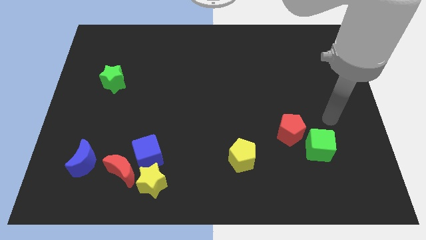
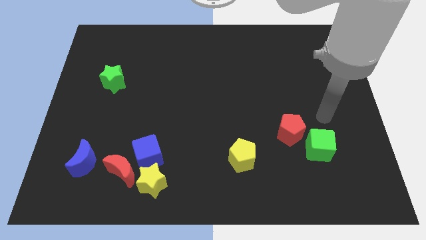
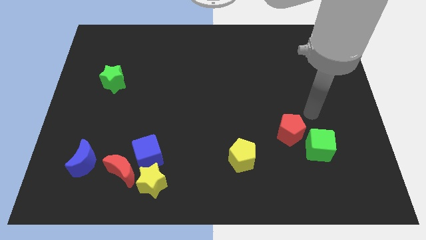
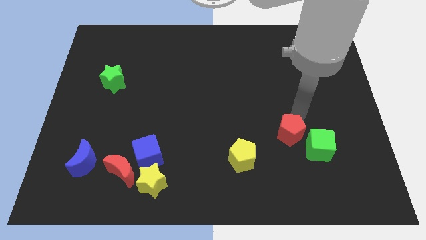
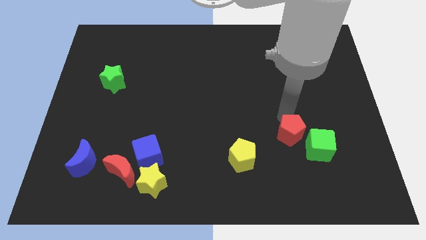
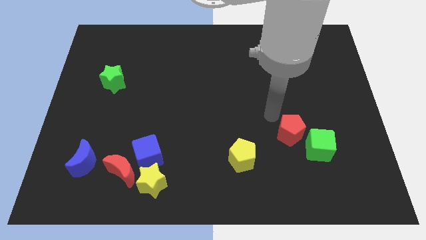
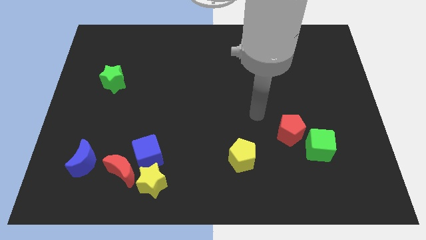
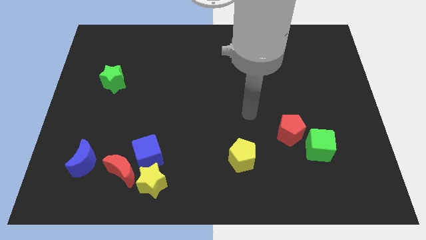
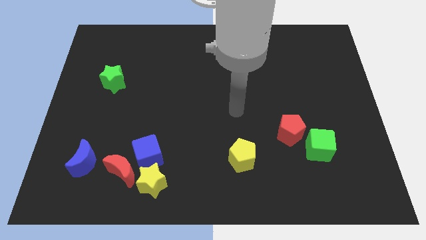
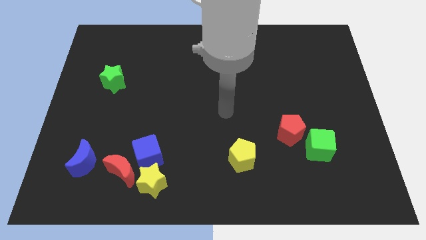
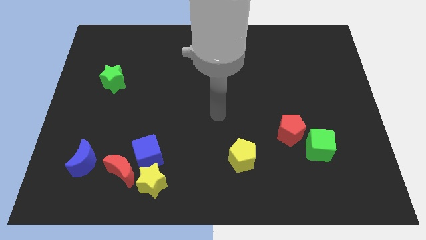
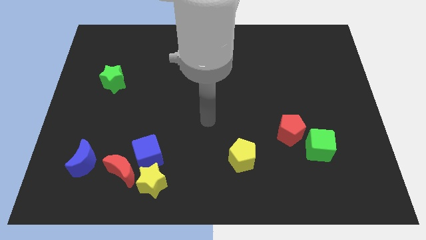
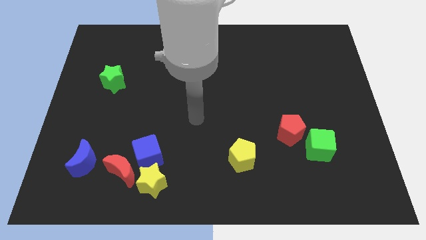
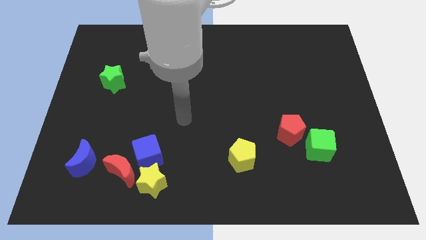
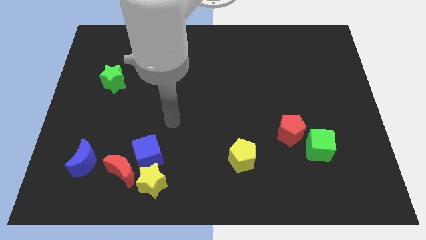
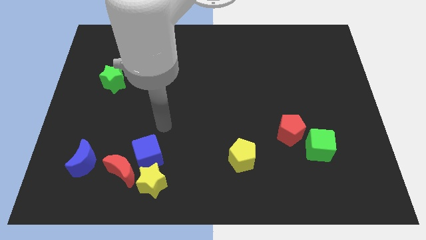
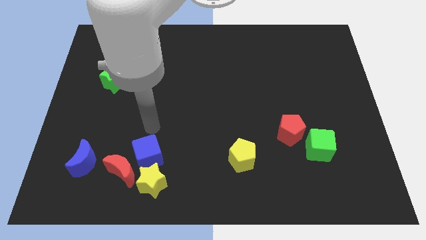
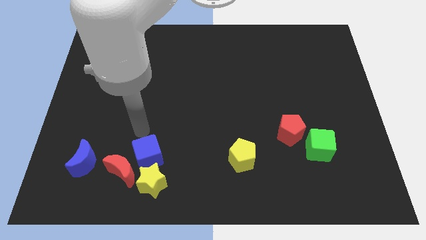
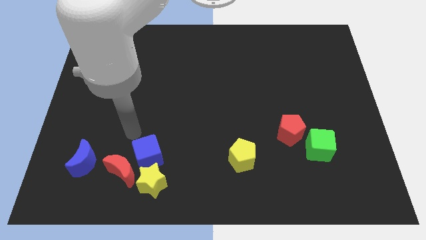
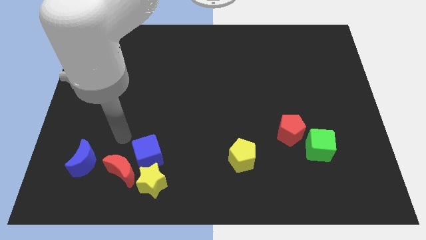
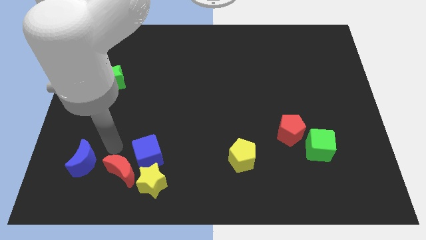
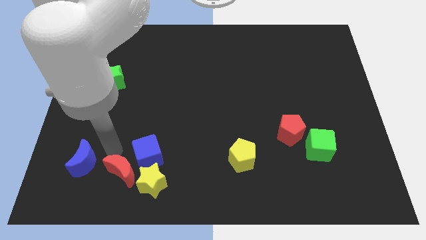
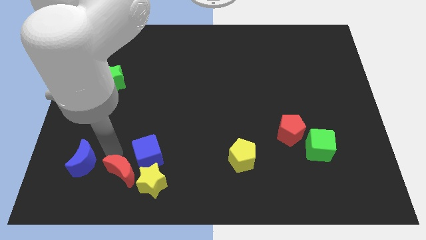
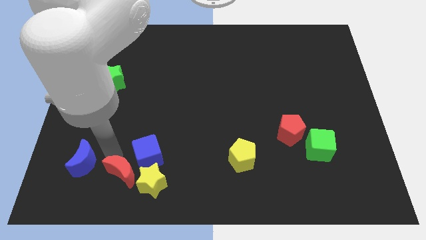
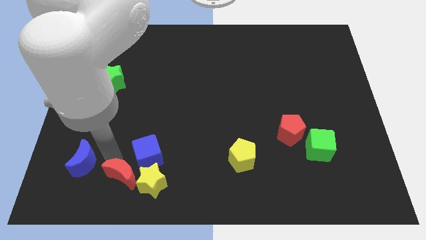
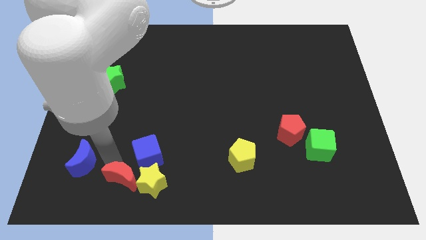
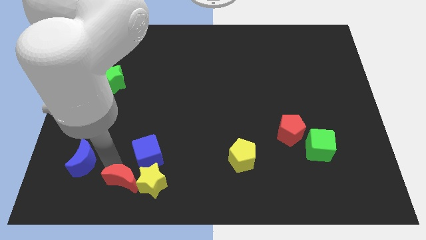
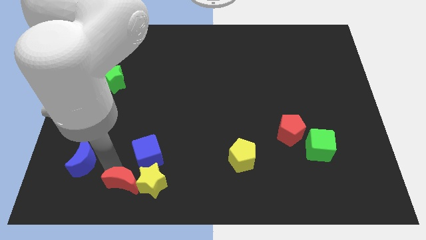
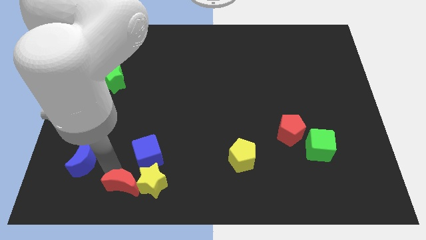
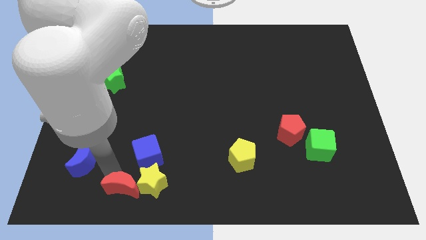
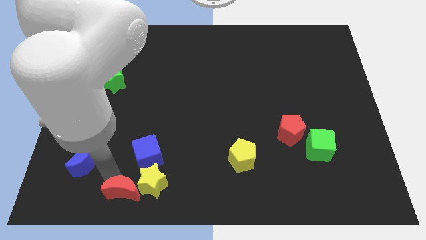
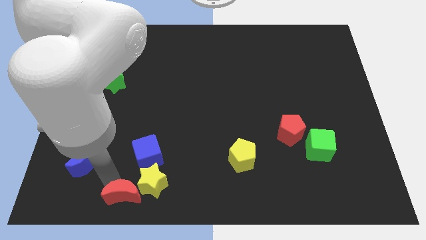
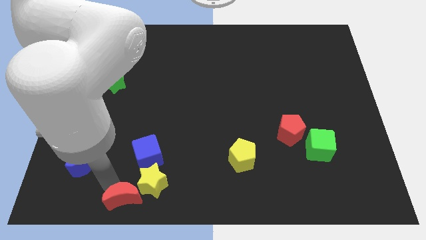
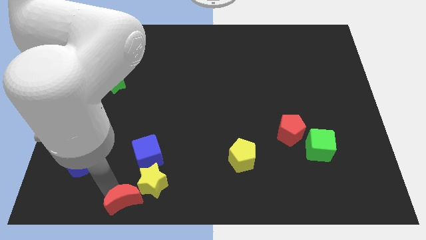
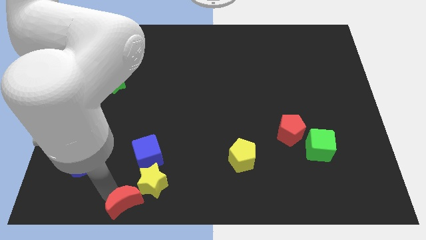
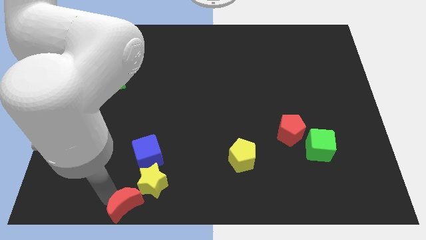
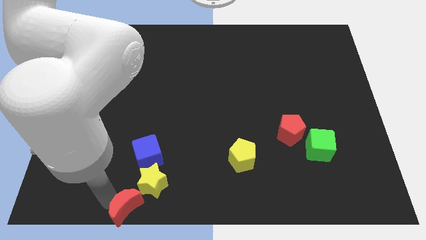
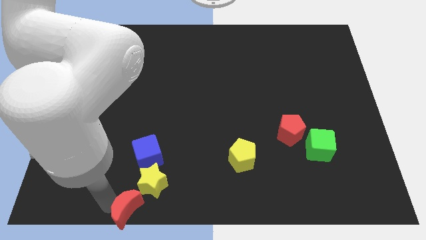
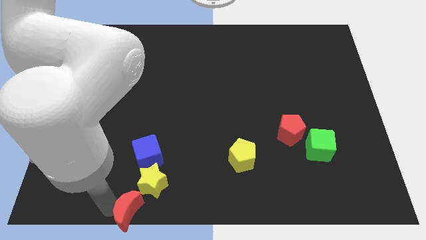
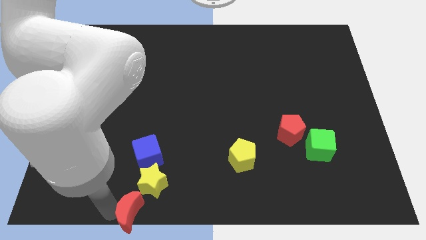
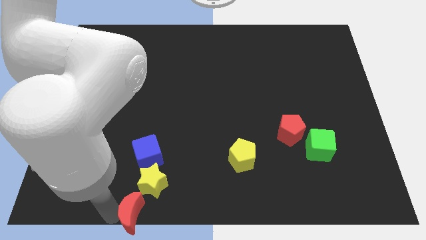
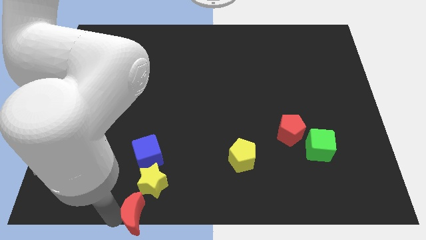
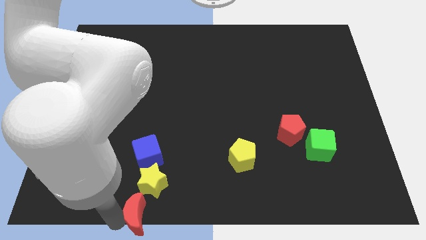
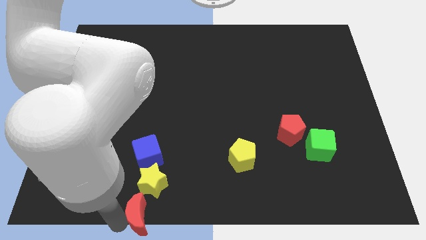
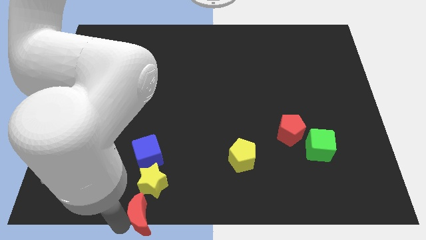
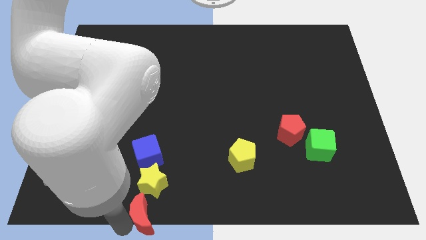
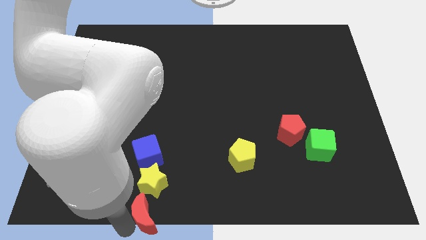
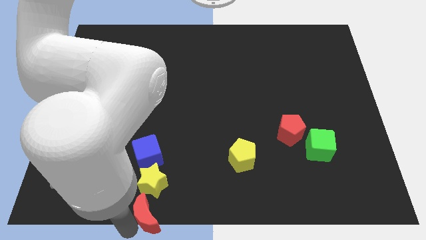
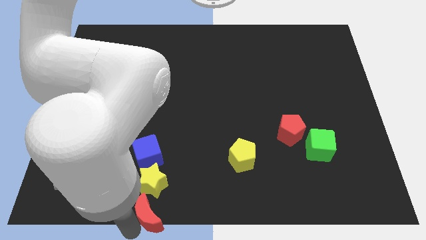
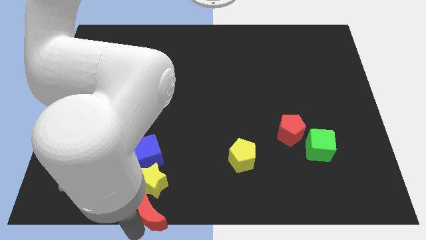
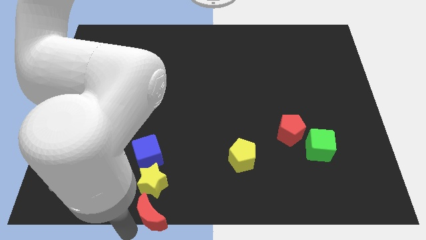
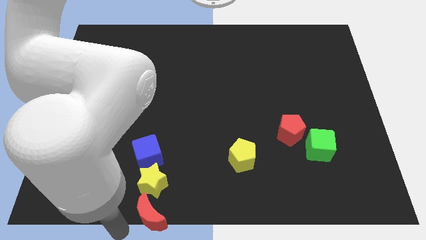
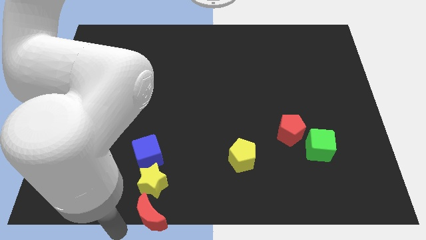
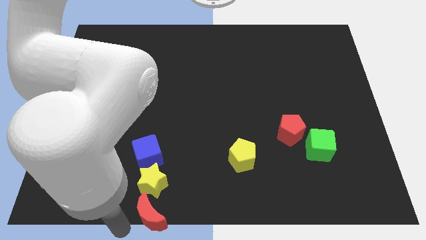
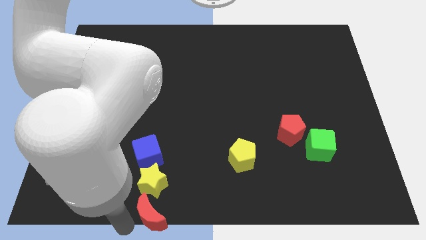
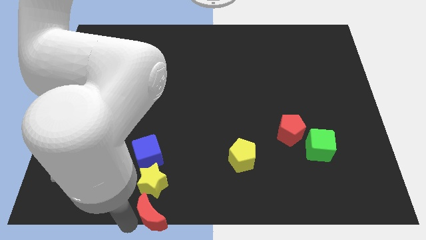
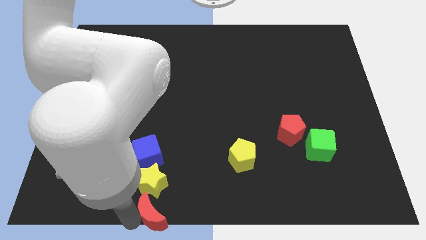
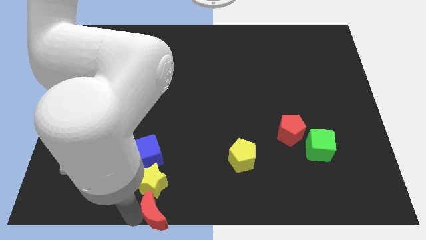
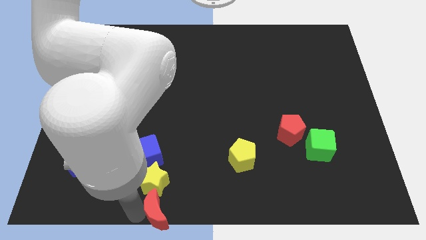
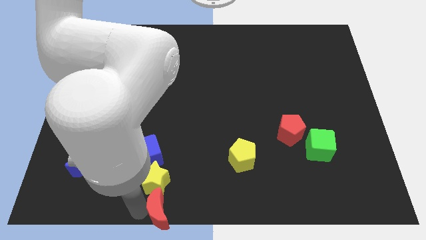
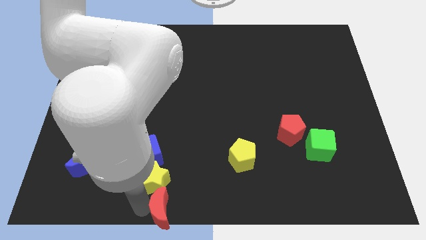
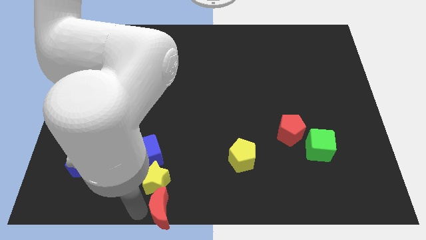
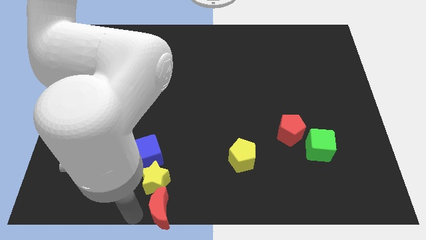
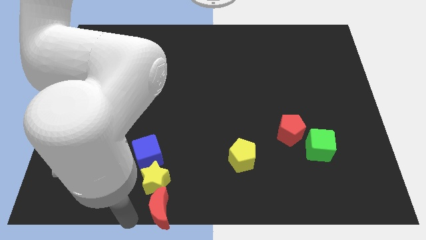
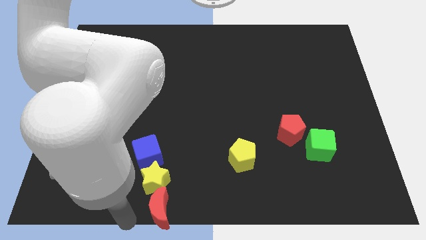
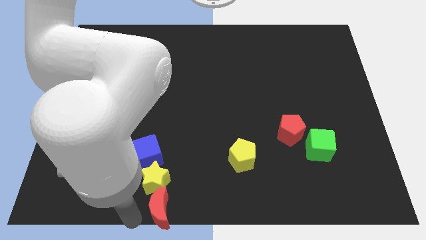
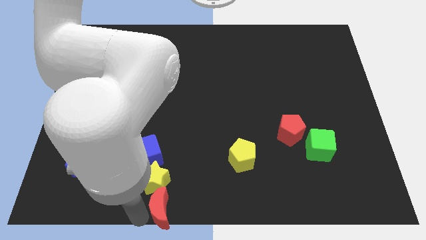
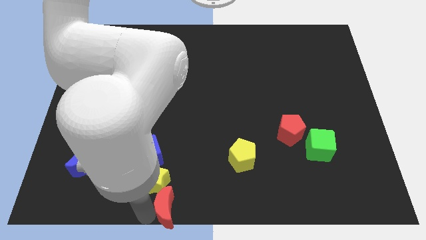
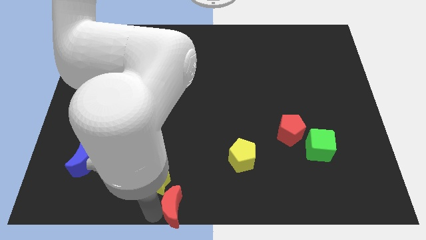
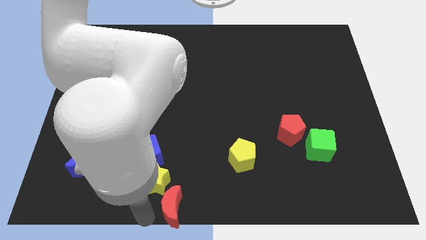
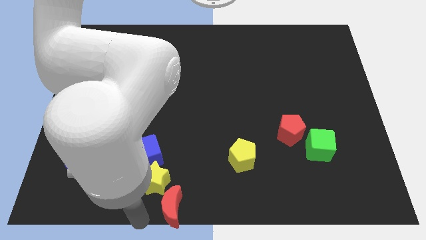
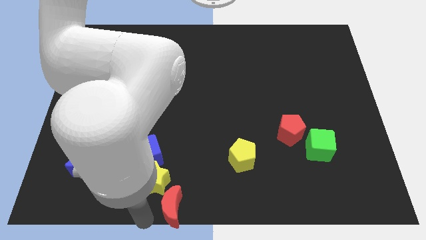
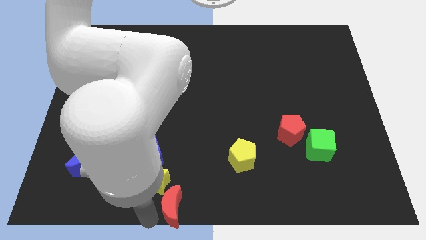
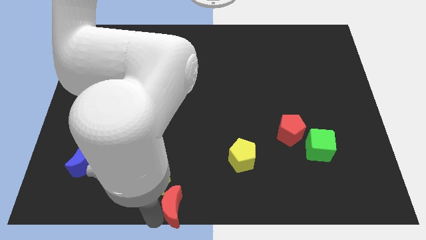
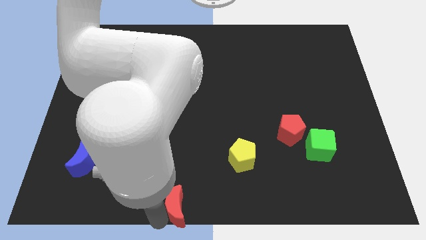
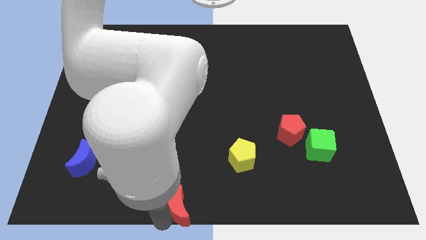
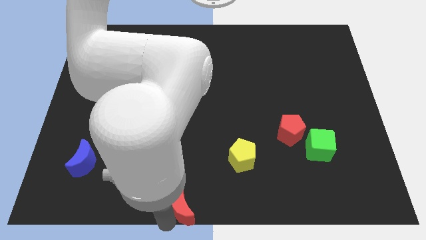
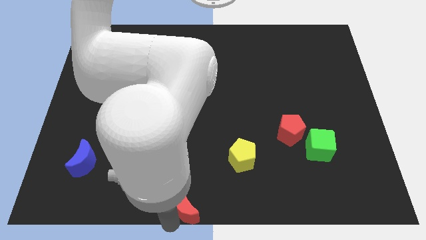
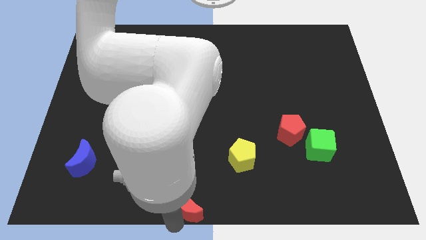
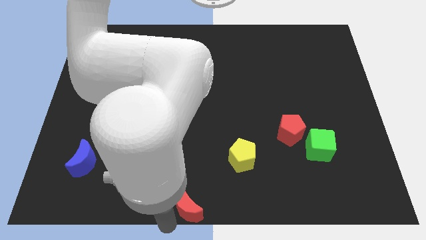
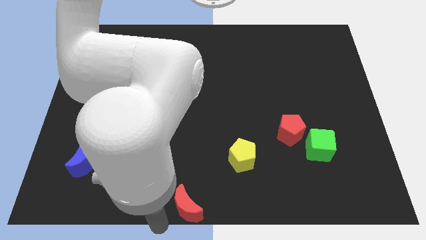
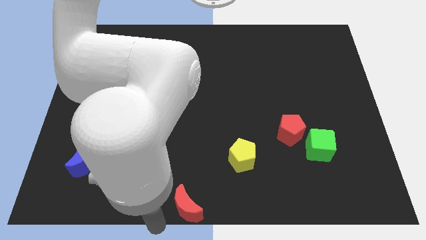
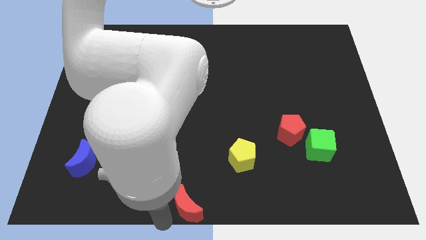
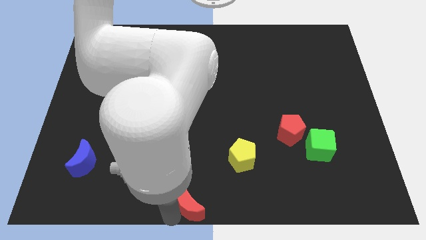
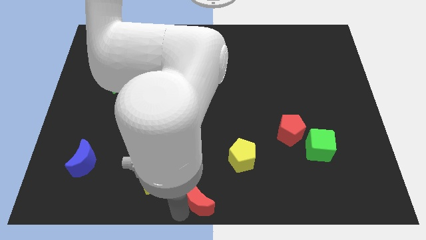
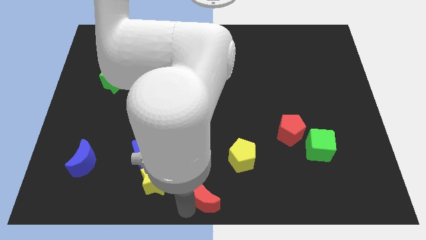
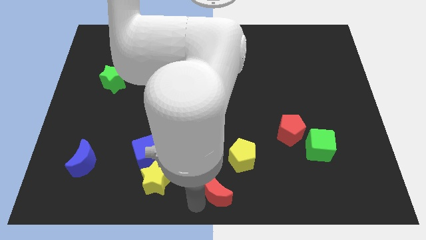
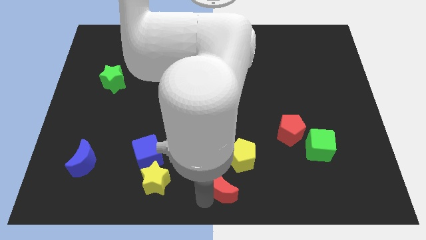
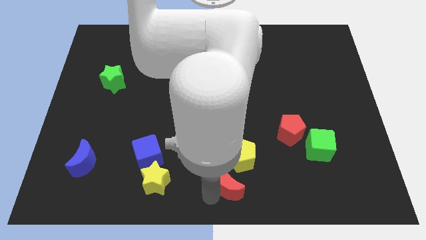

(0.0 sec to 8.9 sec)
push the red moon right
